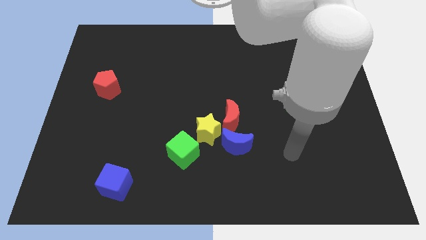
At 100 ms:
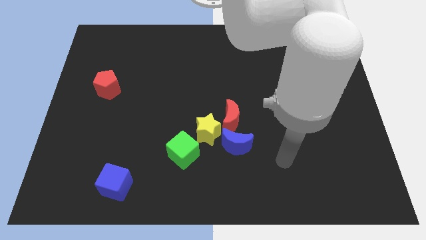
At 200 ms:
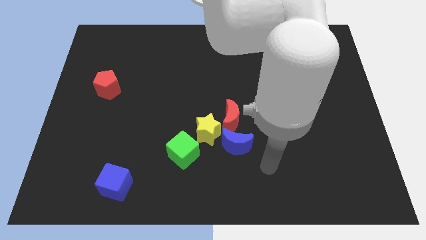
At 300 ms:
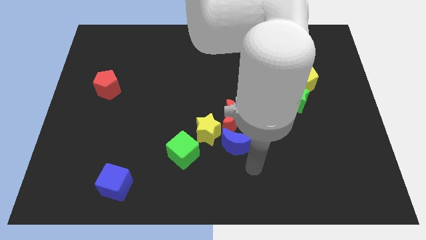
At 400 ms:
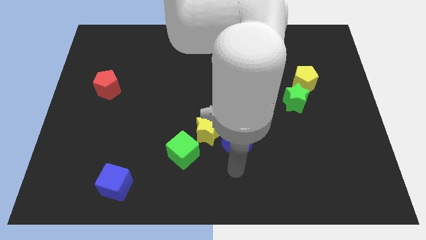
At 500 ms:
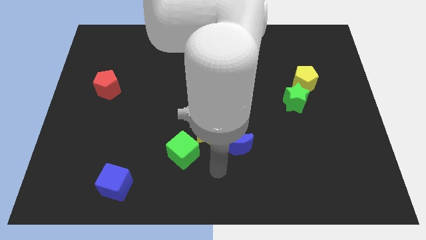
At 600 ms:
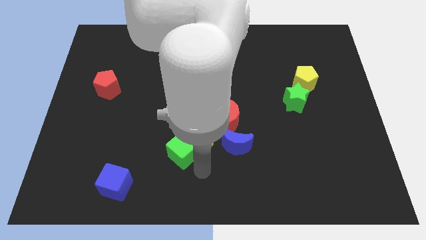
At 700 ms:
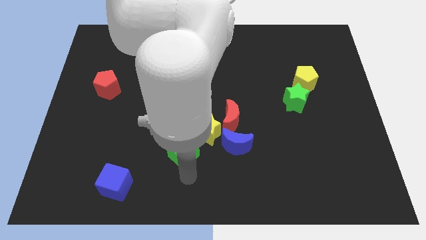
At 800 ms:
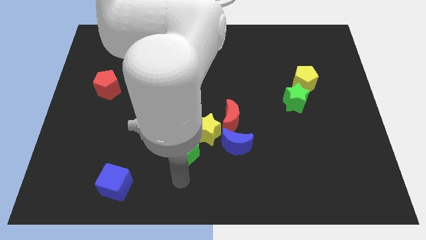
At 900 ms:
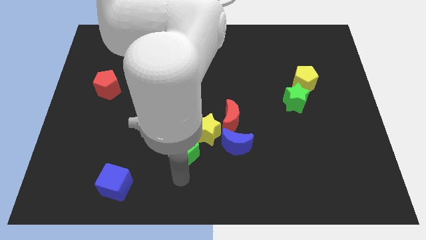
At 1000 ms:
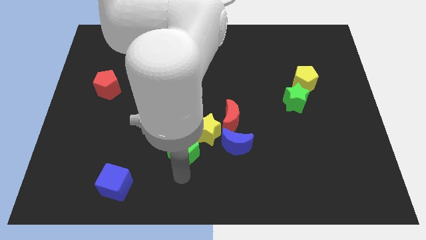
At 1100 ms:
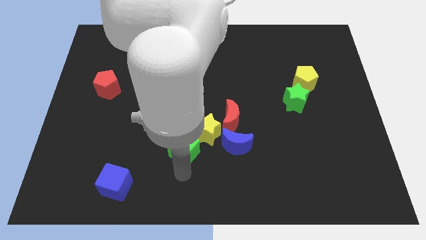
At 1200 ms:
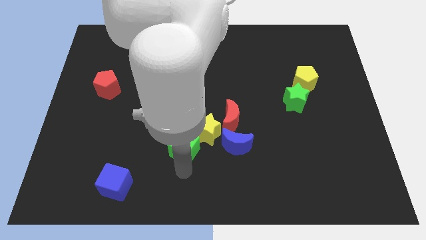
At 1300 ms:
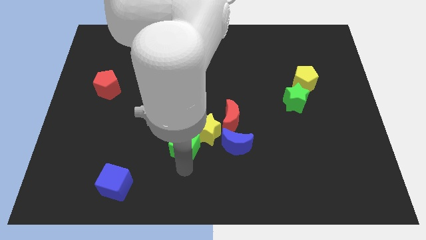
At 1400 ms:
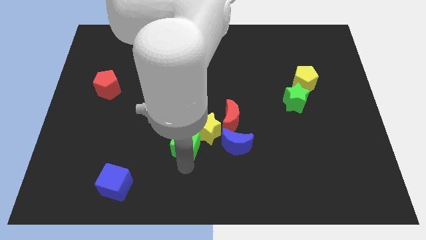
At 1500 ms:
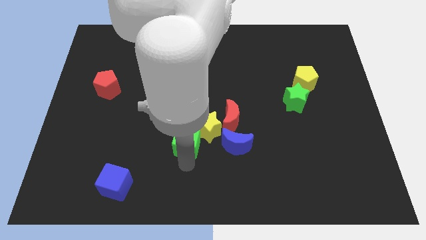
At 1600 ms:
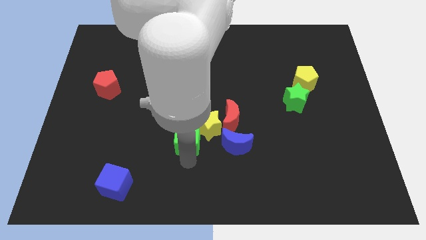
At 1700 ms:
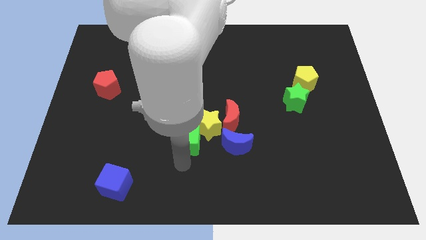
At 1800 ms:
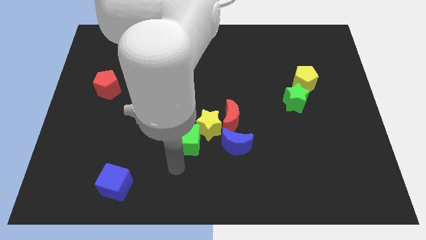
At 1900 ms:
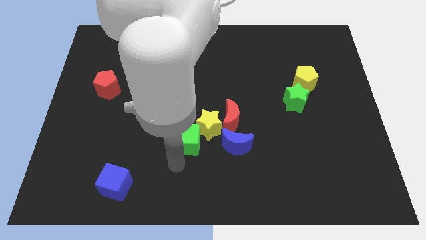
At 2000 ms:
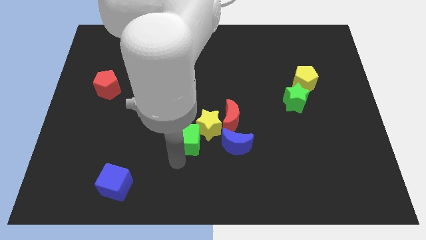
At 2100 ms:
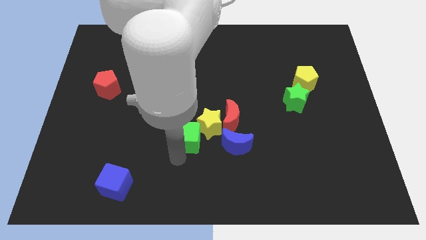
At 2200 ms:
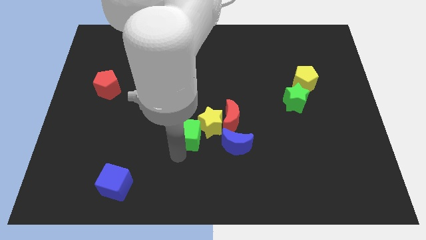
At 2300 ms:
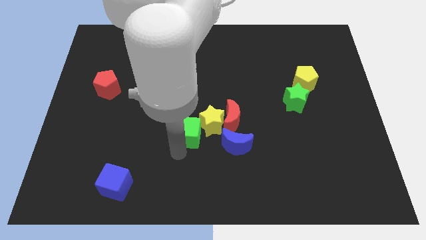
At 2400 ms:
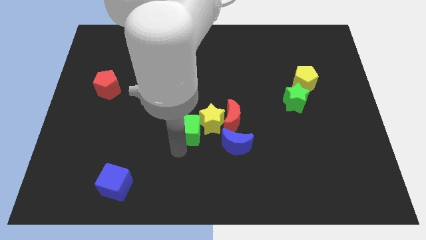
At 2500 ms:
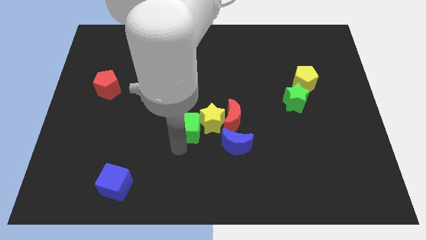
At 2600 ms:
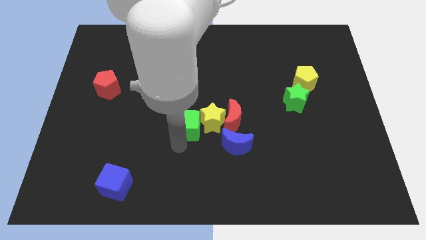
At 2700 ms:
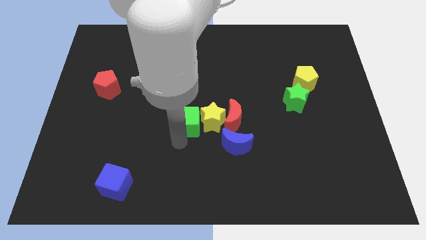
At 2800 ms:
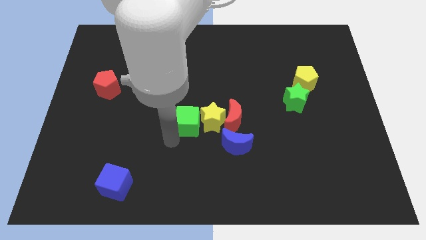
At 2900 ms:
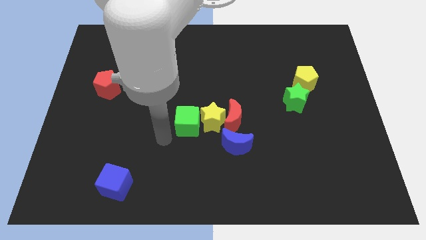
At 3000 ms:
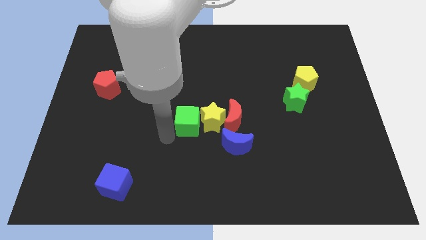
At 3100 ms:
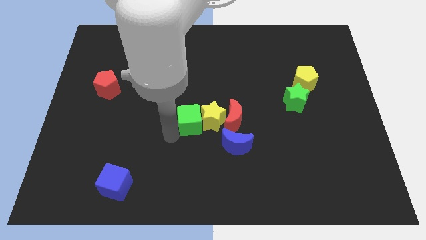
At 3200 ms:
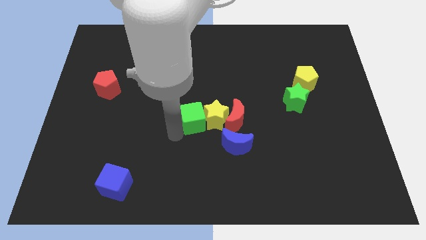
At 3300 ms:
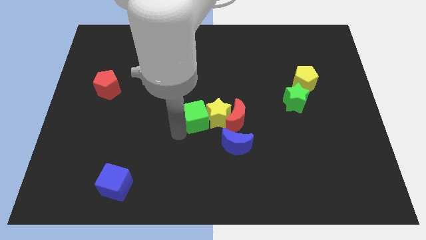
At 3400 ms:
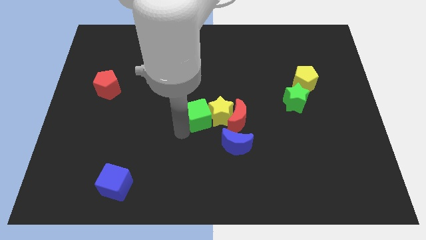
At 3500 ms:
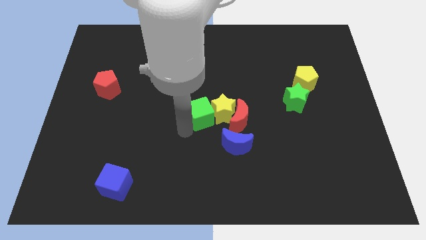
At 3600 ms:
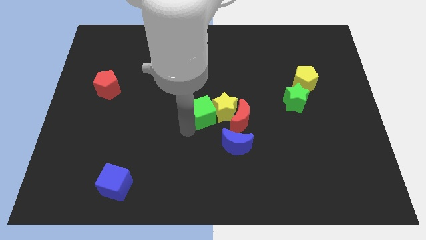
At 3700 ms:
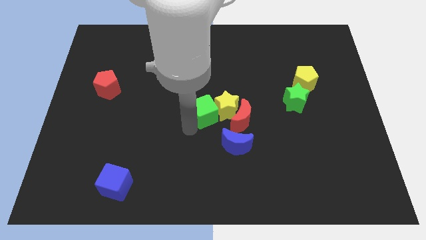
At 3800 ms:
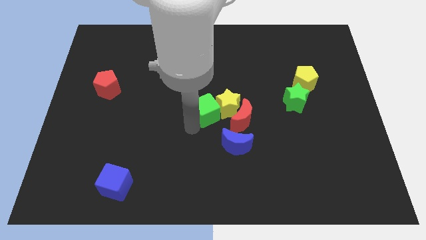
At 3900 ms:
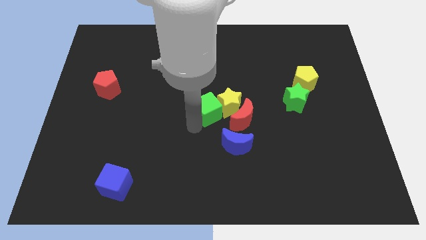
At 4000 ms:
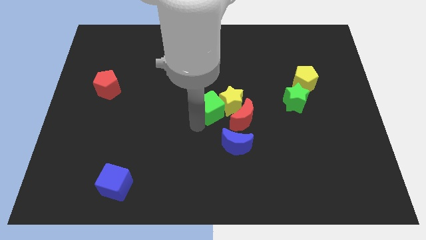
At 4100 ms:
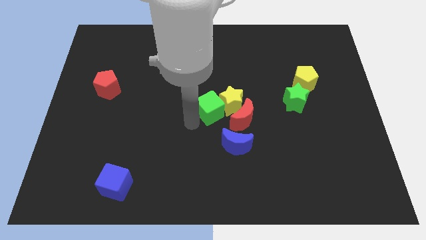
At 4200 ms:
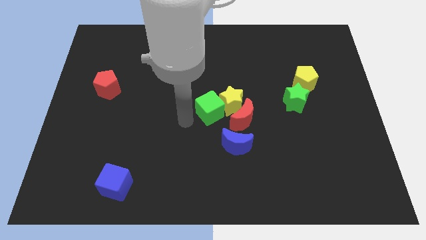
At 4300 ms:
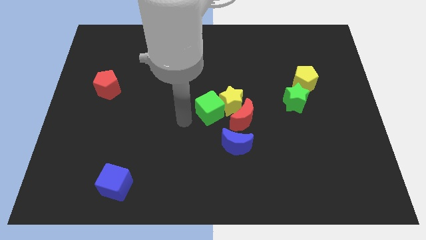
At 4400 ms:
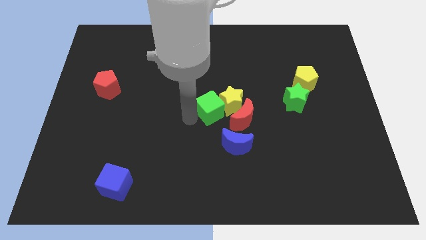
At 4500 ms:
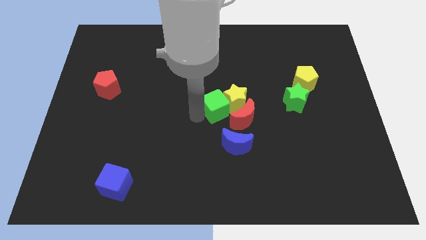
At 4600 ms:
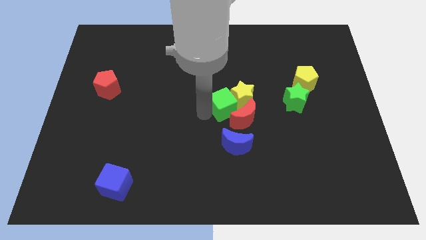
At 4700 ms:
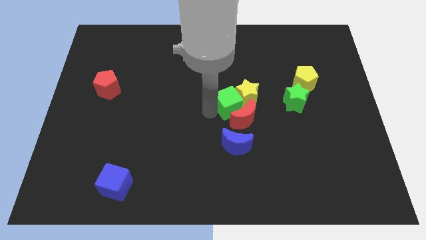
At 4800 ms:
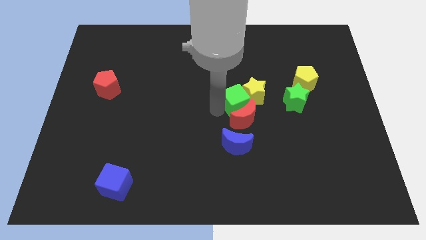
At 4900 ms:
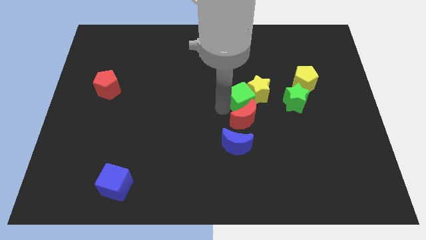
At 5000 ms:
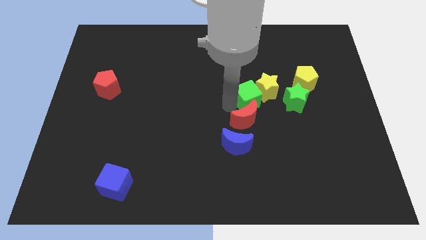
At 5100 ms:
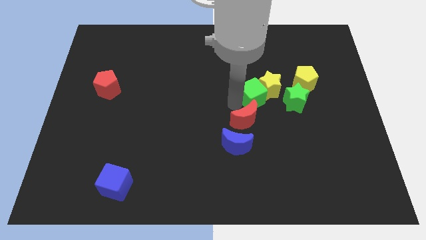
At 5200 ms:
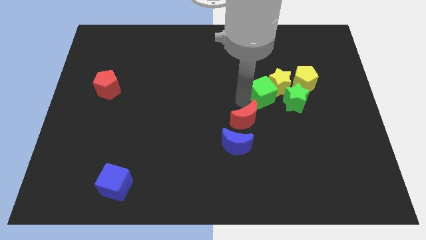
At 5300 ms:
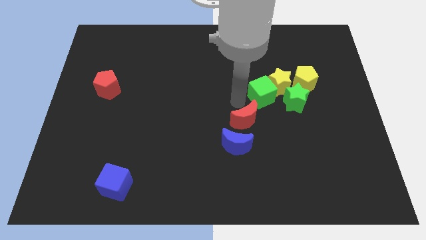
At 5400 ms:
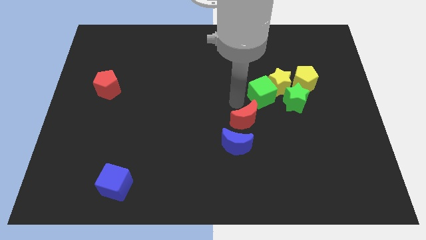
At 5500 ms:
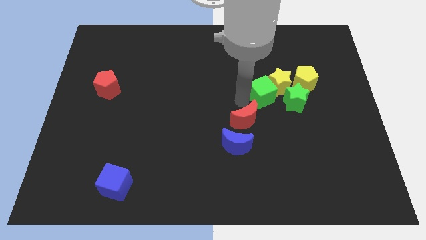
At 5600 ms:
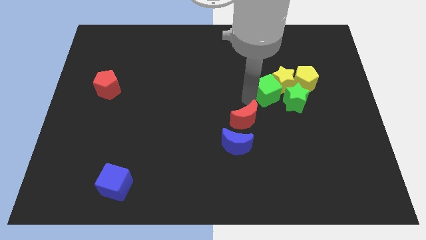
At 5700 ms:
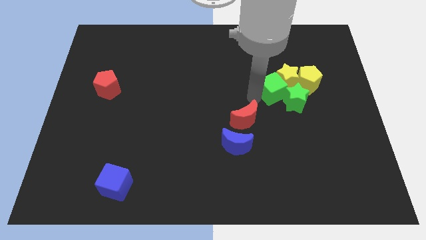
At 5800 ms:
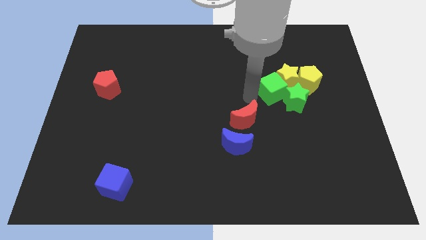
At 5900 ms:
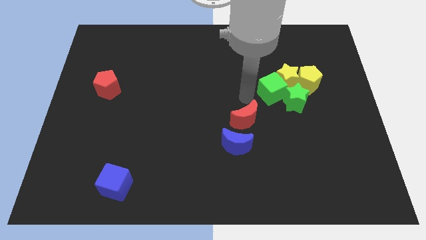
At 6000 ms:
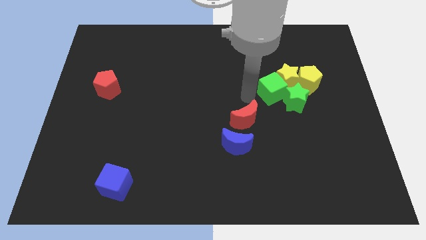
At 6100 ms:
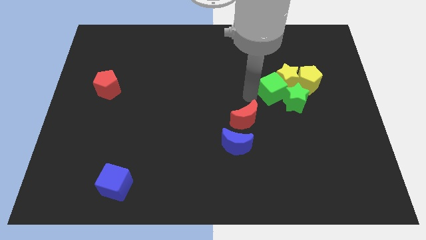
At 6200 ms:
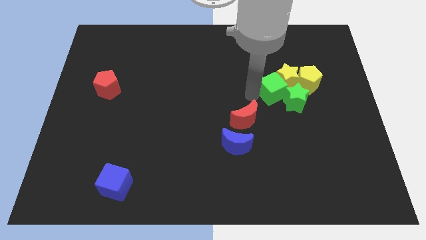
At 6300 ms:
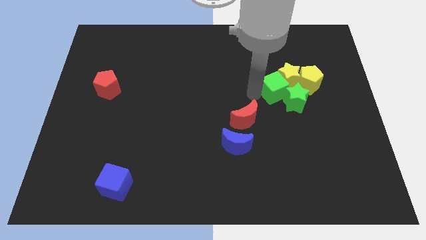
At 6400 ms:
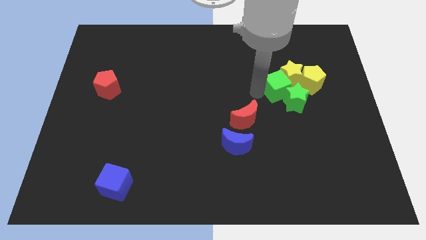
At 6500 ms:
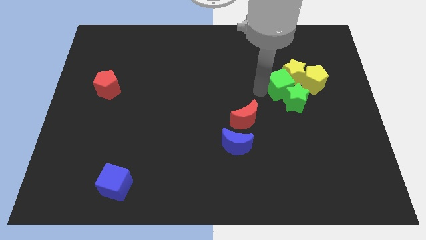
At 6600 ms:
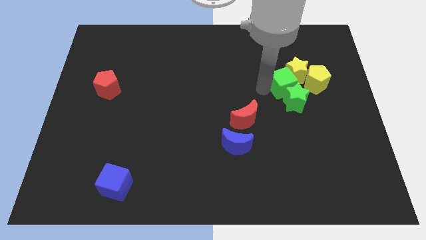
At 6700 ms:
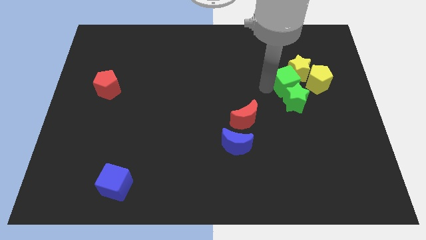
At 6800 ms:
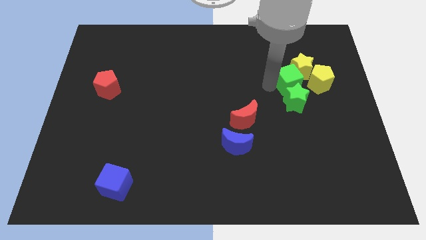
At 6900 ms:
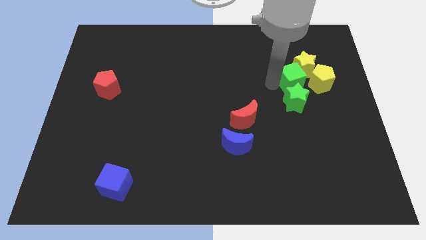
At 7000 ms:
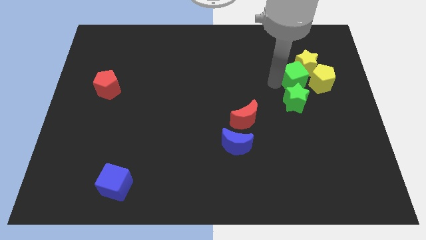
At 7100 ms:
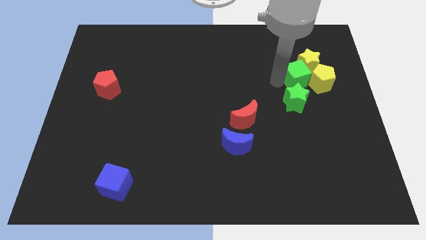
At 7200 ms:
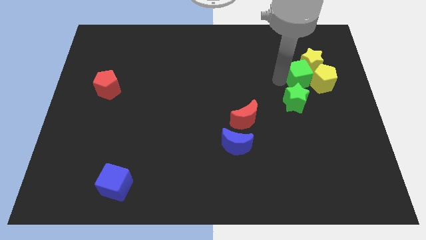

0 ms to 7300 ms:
put the green cube towards the yellow pentagon
